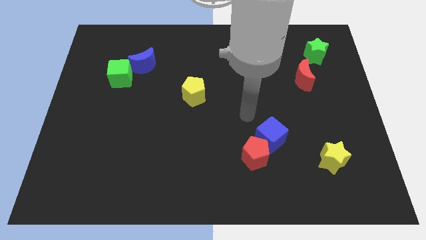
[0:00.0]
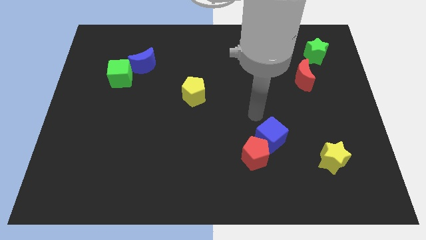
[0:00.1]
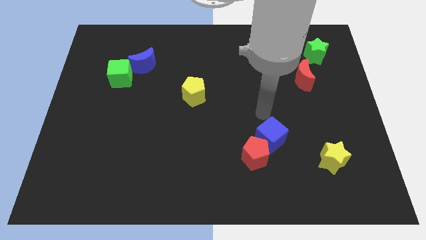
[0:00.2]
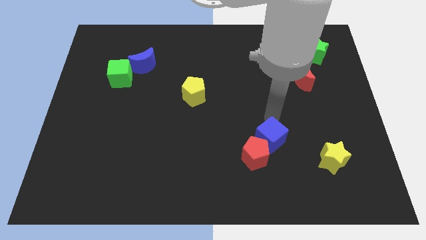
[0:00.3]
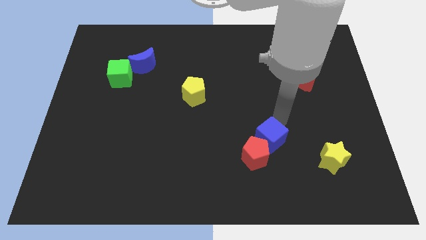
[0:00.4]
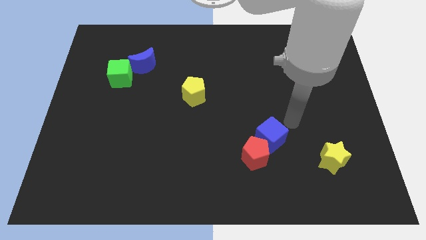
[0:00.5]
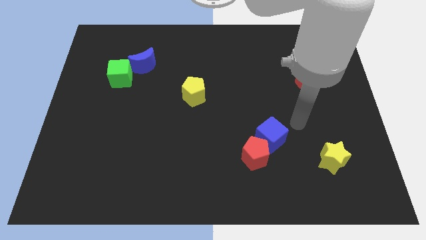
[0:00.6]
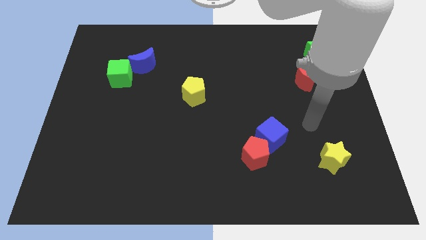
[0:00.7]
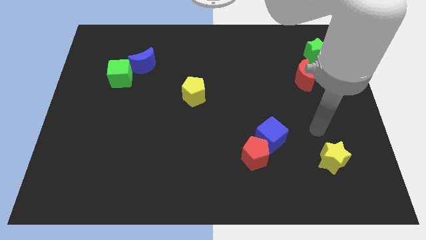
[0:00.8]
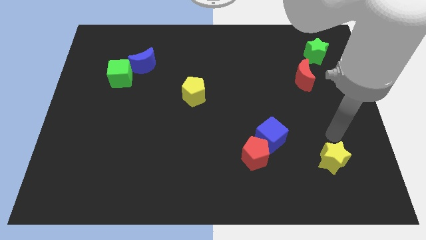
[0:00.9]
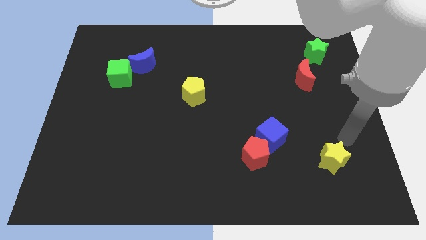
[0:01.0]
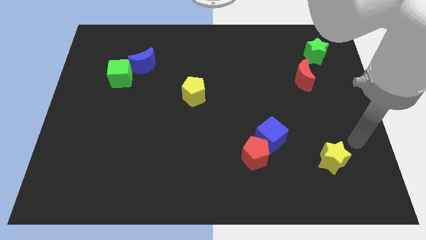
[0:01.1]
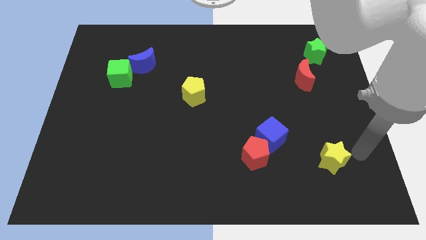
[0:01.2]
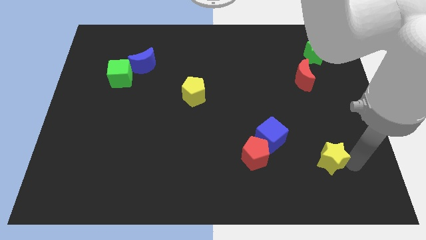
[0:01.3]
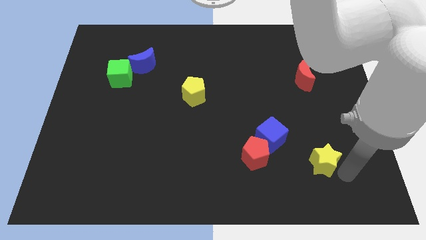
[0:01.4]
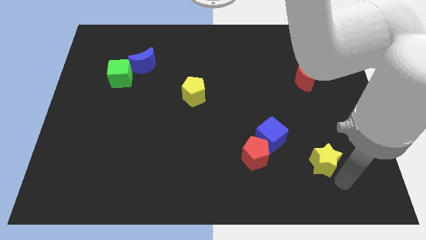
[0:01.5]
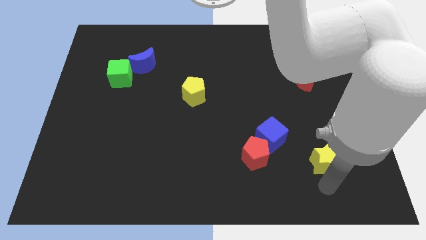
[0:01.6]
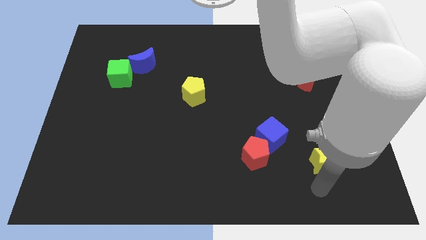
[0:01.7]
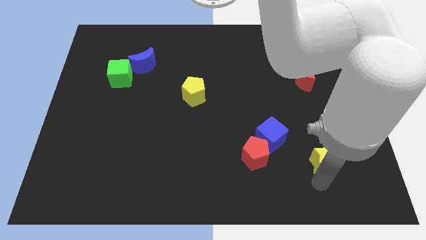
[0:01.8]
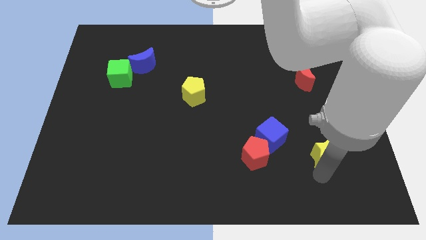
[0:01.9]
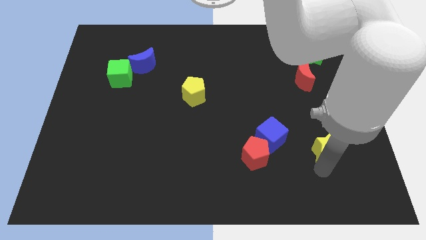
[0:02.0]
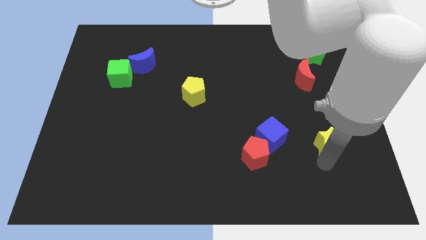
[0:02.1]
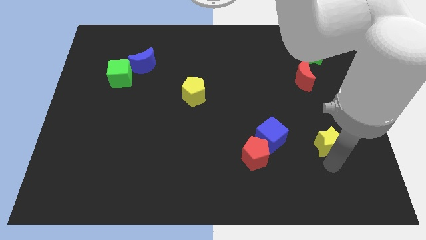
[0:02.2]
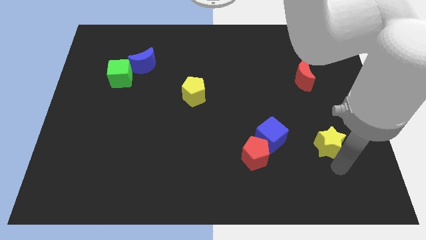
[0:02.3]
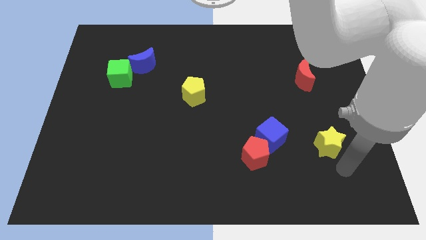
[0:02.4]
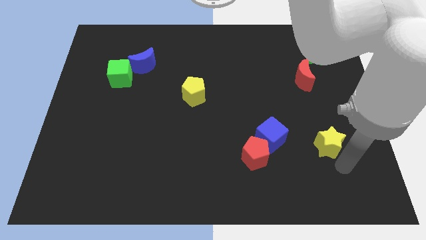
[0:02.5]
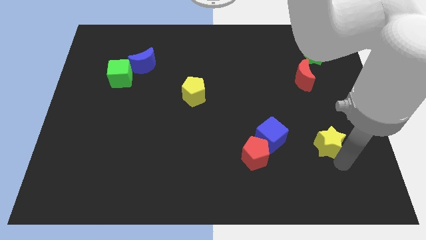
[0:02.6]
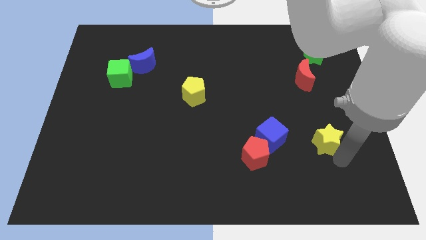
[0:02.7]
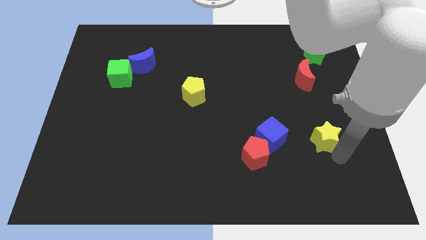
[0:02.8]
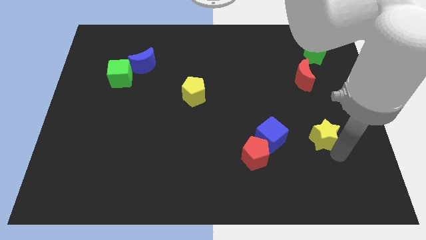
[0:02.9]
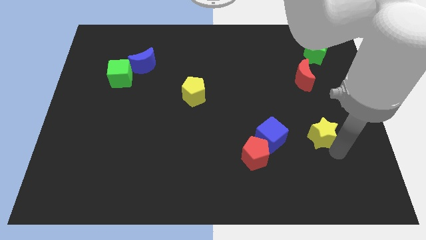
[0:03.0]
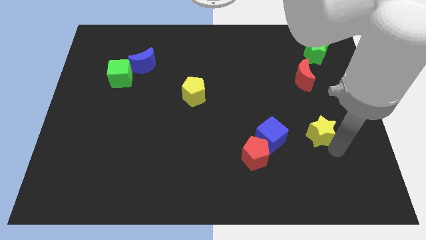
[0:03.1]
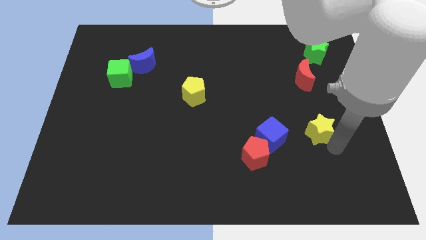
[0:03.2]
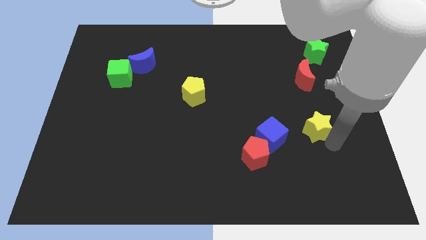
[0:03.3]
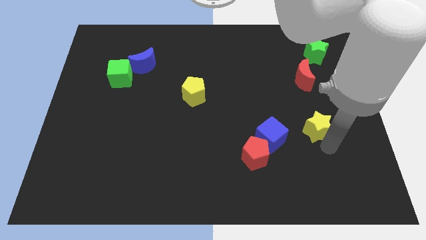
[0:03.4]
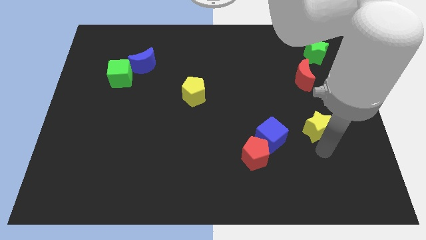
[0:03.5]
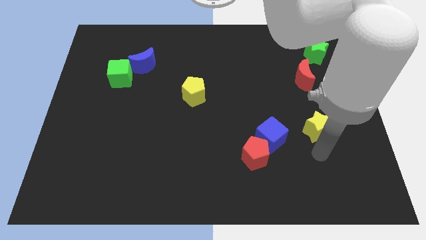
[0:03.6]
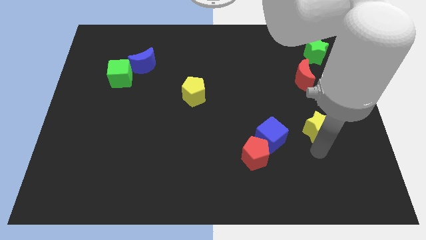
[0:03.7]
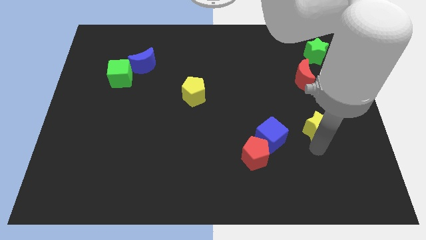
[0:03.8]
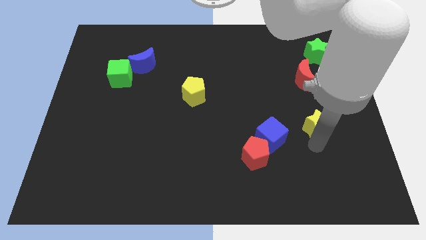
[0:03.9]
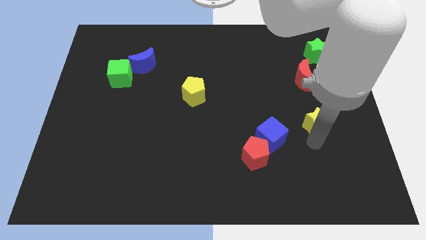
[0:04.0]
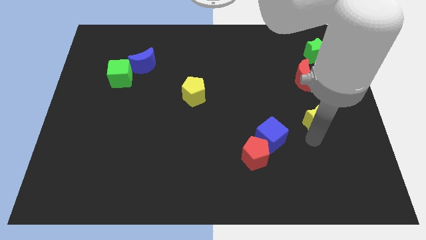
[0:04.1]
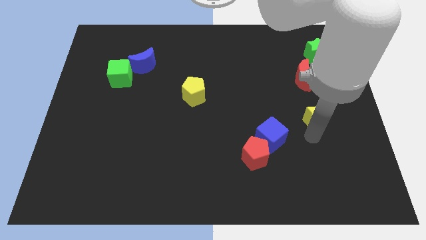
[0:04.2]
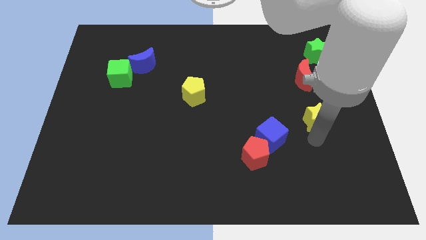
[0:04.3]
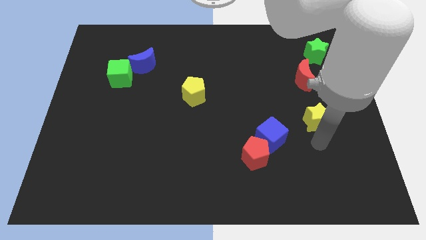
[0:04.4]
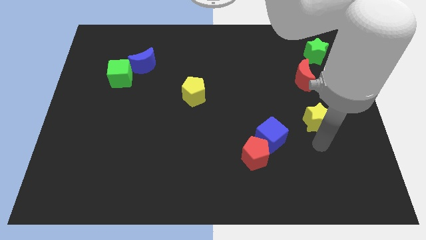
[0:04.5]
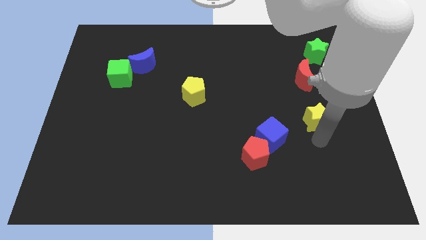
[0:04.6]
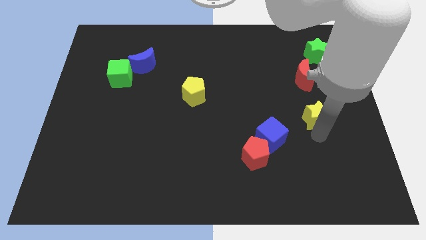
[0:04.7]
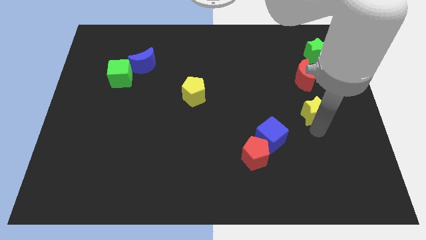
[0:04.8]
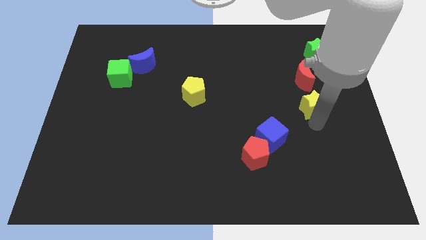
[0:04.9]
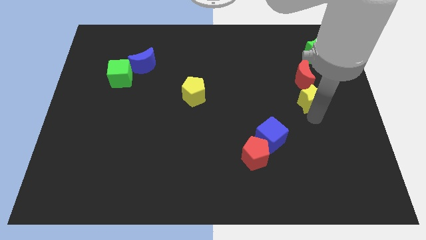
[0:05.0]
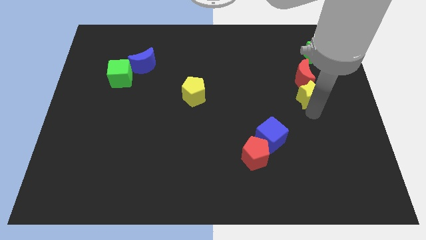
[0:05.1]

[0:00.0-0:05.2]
move the yellow star to the red moon

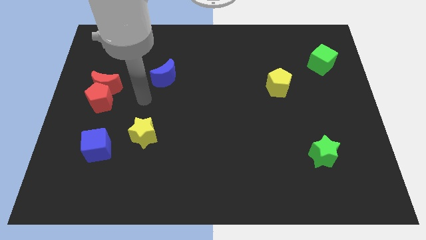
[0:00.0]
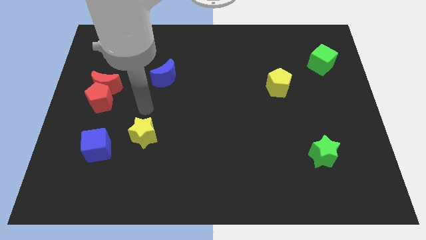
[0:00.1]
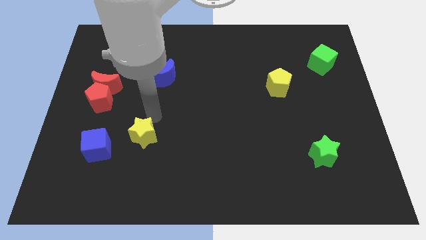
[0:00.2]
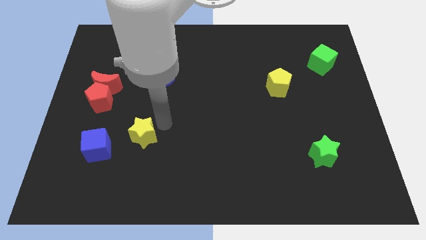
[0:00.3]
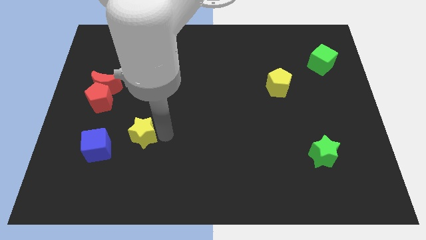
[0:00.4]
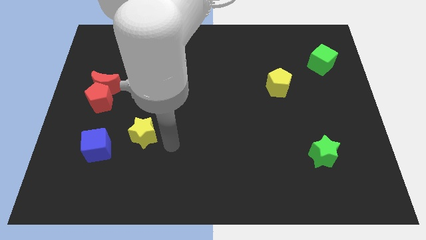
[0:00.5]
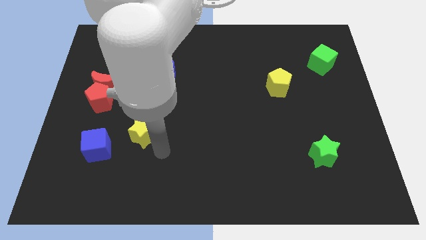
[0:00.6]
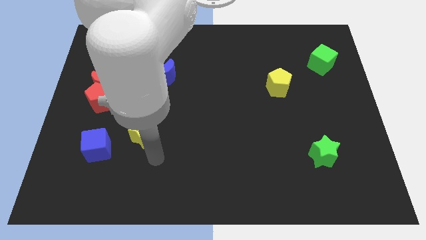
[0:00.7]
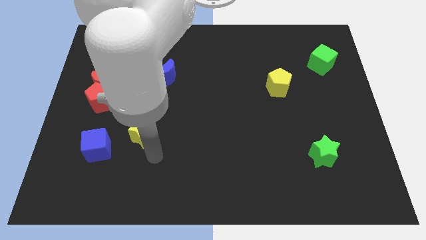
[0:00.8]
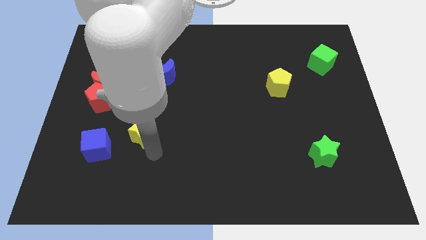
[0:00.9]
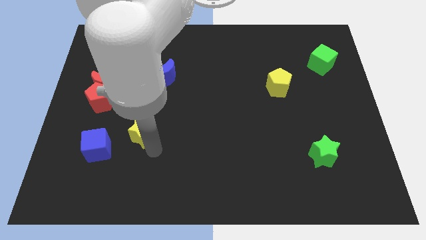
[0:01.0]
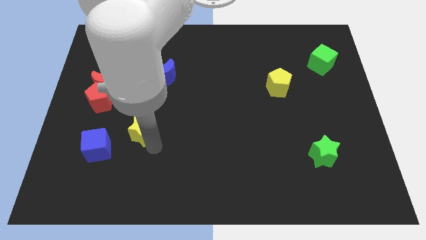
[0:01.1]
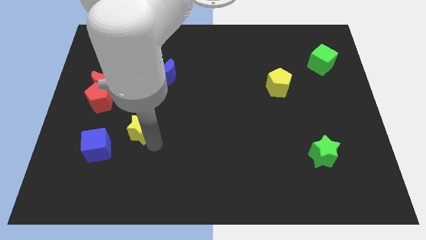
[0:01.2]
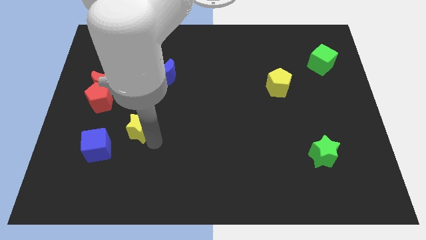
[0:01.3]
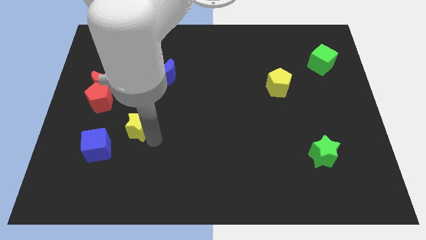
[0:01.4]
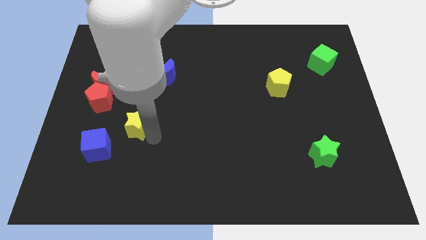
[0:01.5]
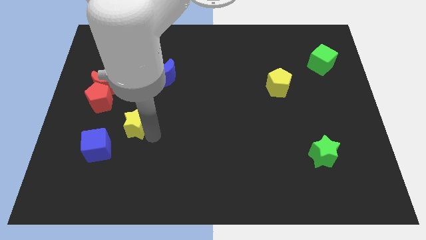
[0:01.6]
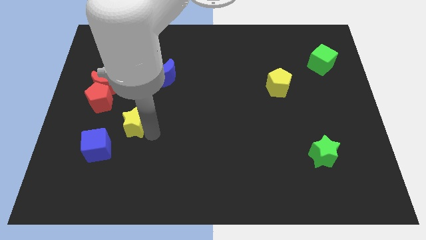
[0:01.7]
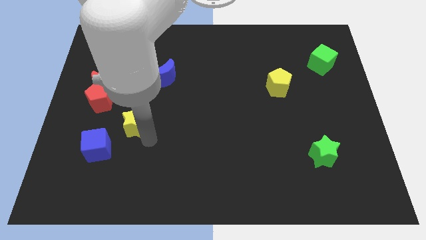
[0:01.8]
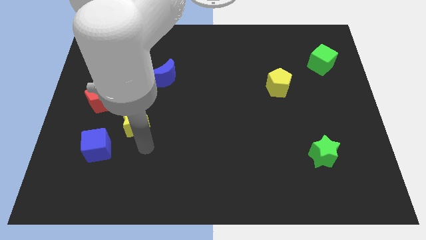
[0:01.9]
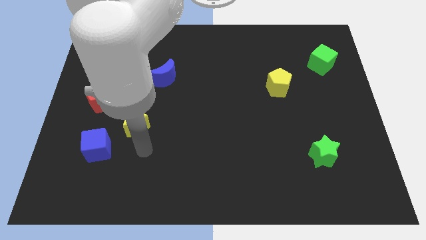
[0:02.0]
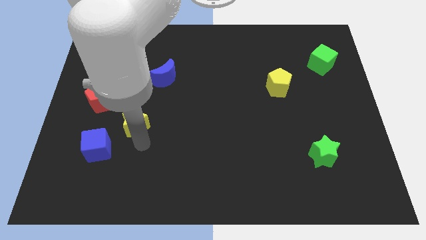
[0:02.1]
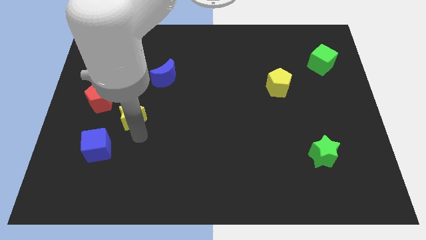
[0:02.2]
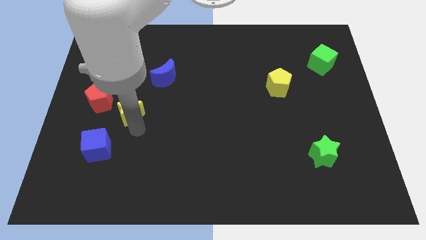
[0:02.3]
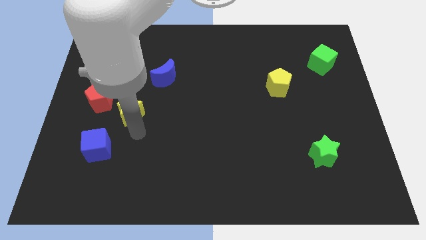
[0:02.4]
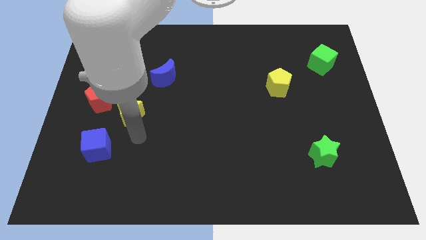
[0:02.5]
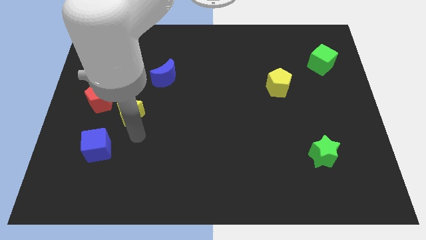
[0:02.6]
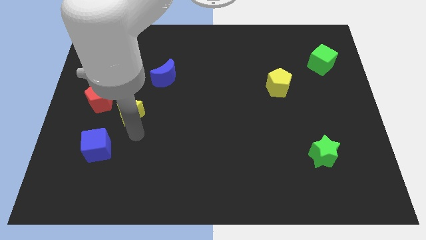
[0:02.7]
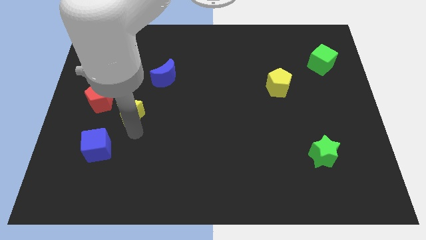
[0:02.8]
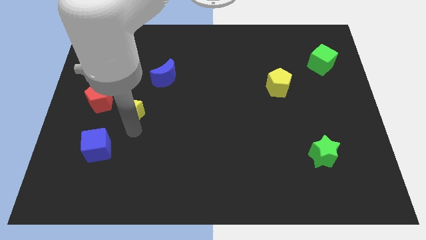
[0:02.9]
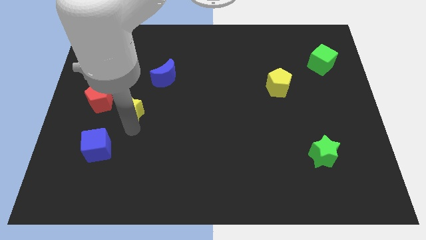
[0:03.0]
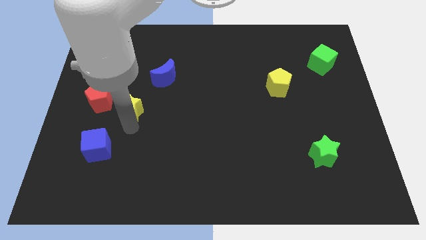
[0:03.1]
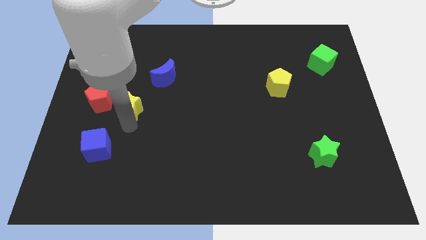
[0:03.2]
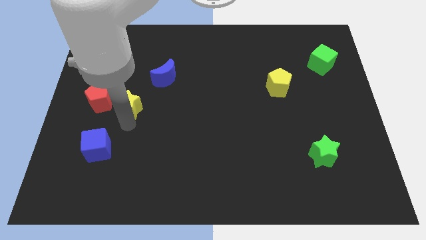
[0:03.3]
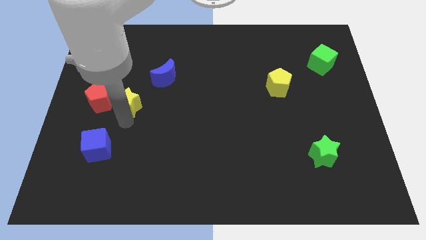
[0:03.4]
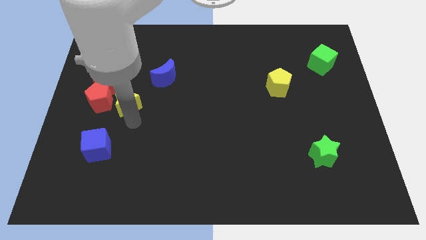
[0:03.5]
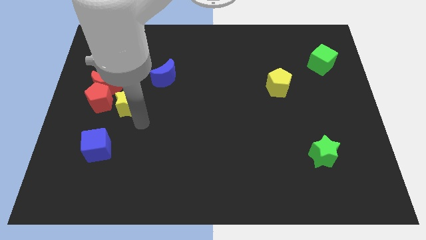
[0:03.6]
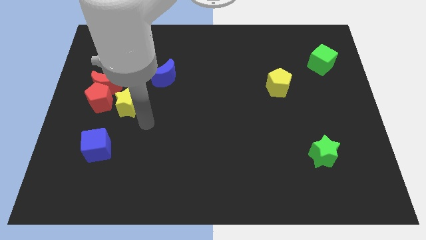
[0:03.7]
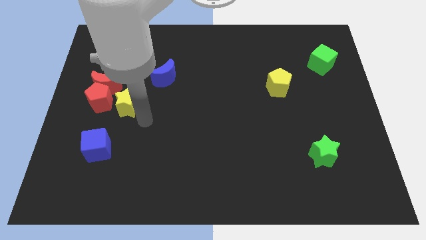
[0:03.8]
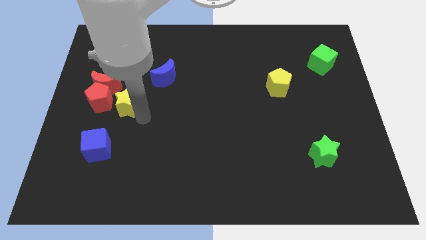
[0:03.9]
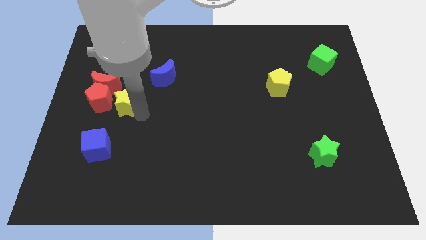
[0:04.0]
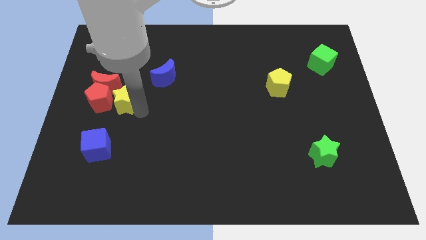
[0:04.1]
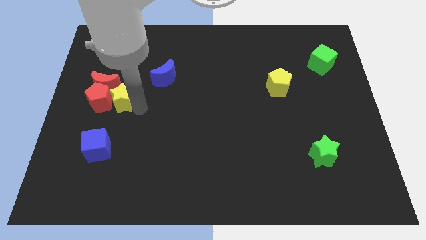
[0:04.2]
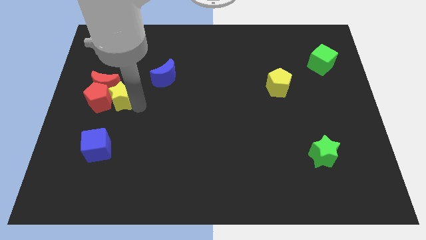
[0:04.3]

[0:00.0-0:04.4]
put the yellow star next to the red moon
